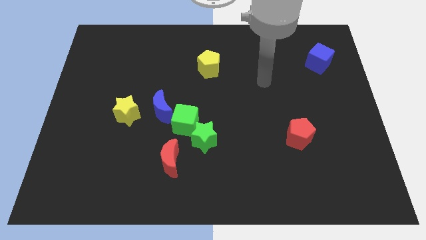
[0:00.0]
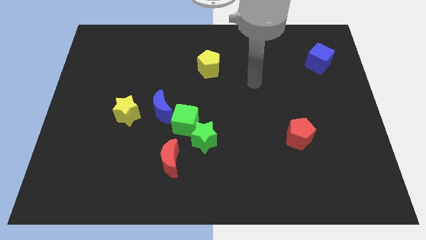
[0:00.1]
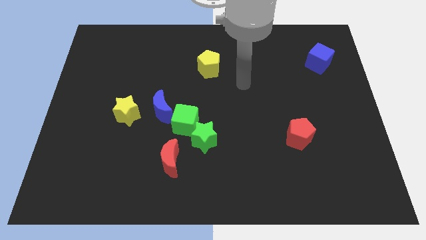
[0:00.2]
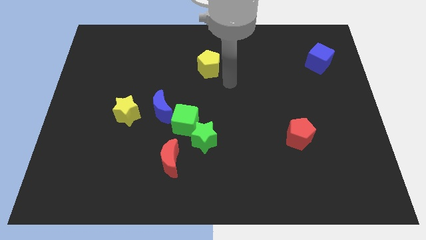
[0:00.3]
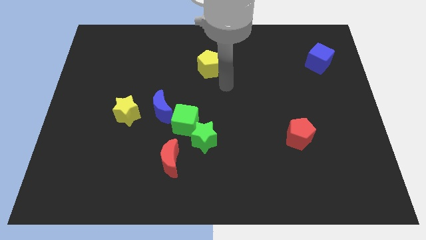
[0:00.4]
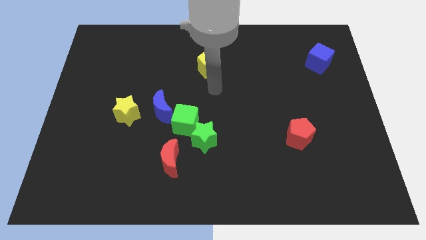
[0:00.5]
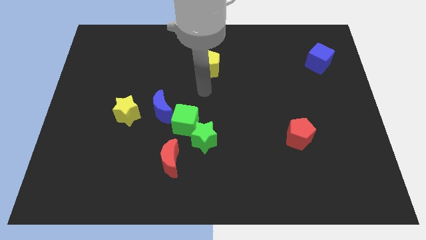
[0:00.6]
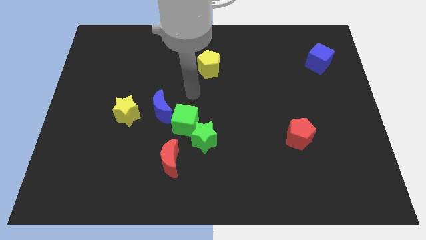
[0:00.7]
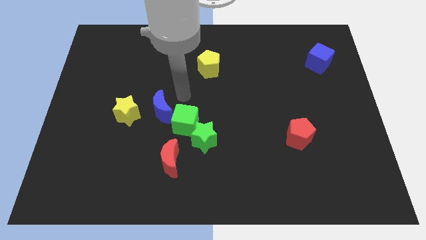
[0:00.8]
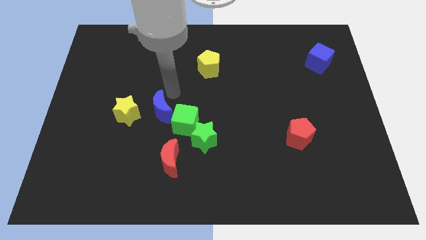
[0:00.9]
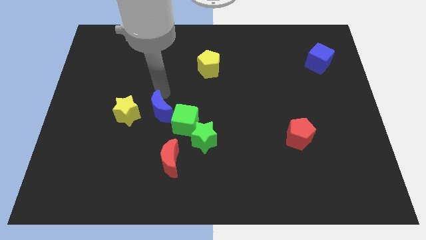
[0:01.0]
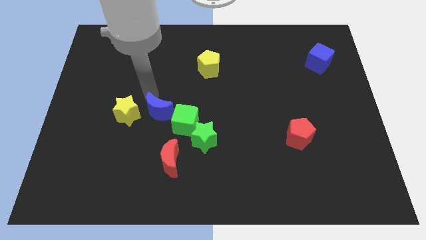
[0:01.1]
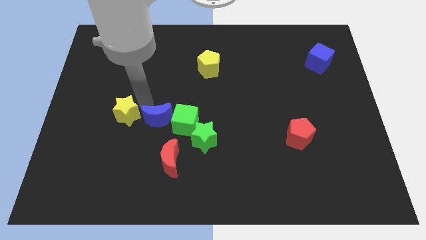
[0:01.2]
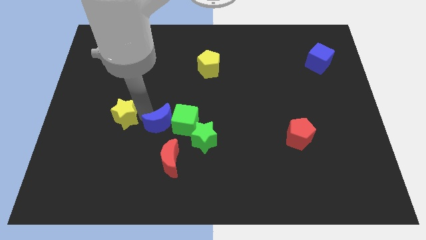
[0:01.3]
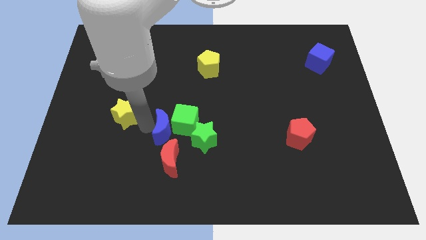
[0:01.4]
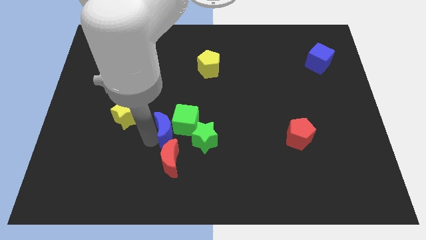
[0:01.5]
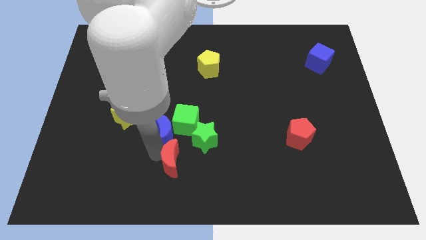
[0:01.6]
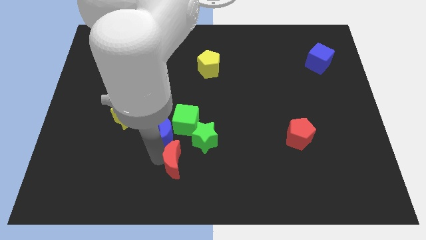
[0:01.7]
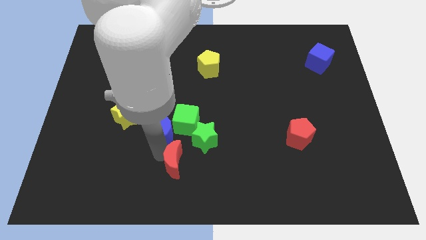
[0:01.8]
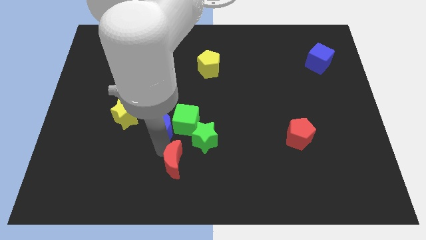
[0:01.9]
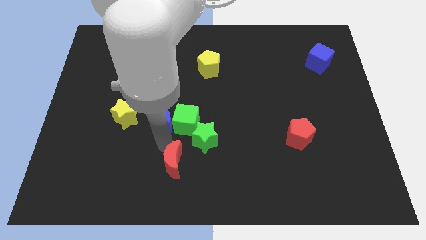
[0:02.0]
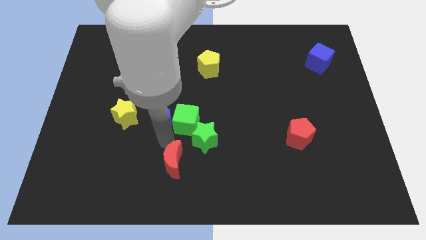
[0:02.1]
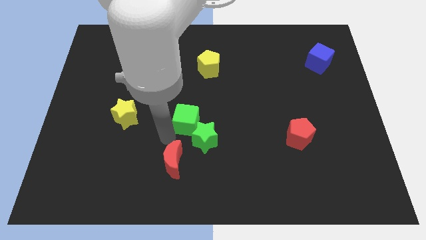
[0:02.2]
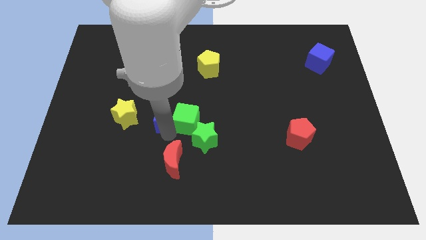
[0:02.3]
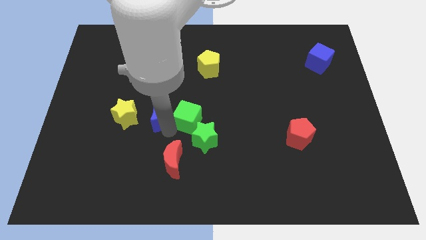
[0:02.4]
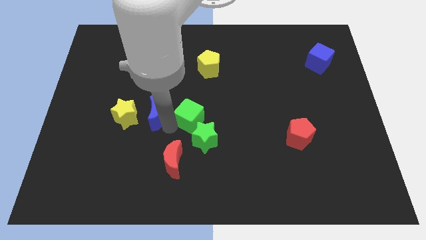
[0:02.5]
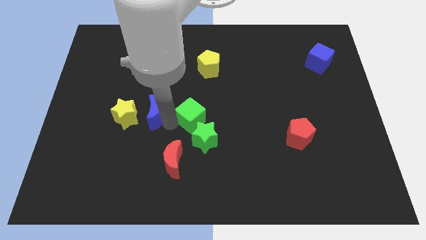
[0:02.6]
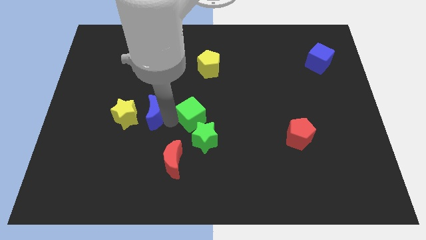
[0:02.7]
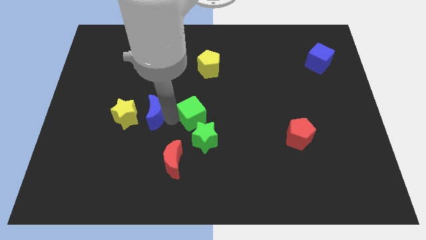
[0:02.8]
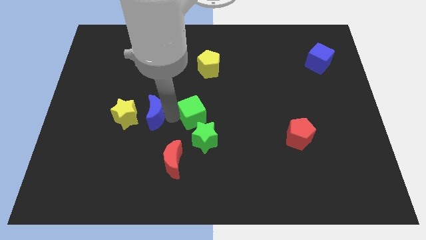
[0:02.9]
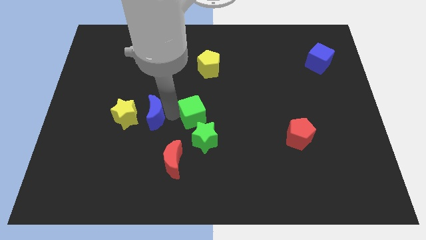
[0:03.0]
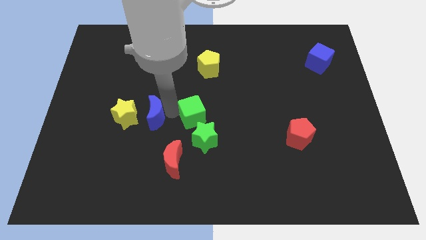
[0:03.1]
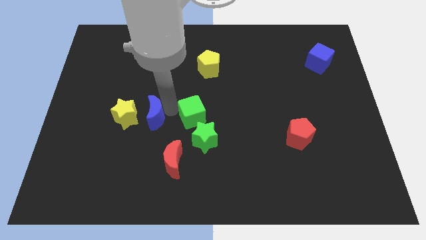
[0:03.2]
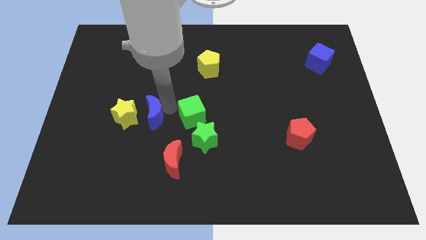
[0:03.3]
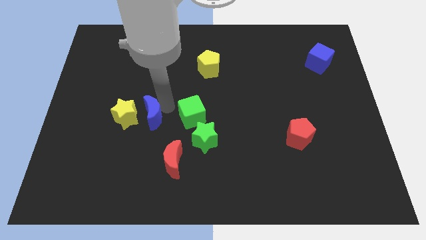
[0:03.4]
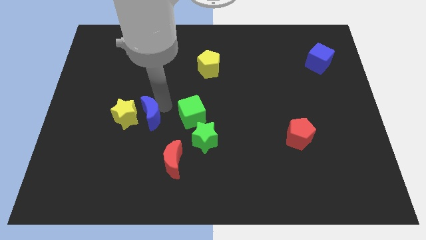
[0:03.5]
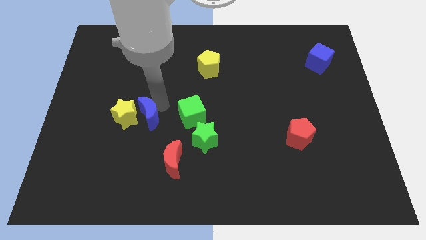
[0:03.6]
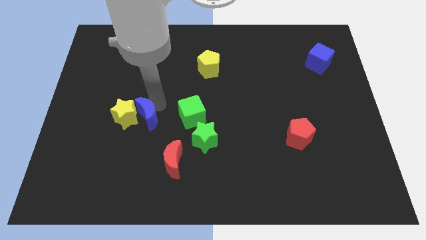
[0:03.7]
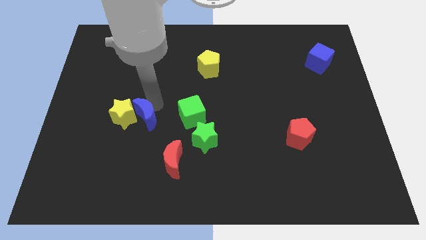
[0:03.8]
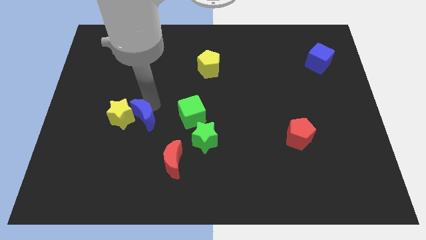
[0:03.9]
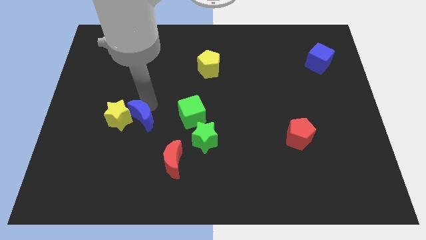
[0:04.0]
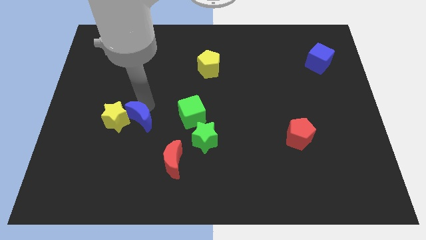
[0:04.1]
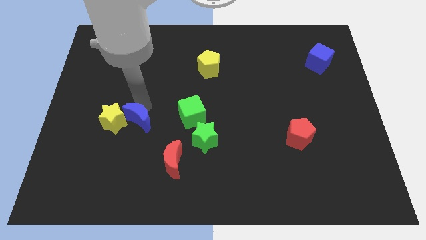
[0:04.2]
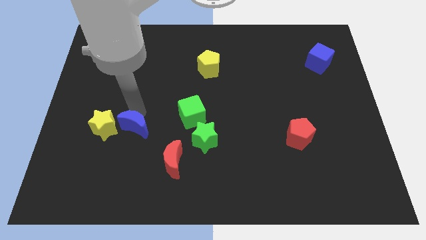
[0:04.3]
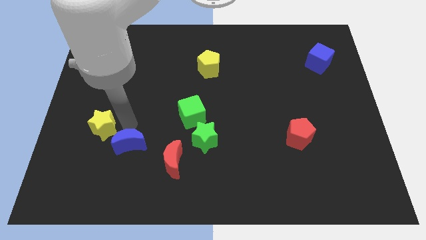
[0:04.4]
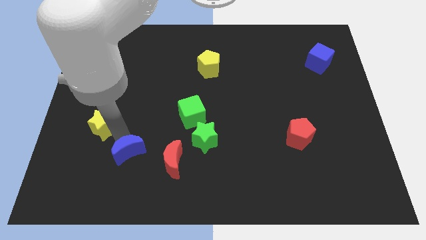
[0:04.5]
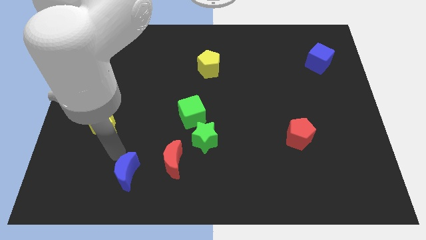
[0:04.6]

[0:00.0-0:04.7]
move the blue moon away from the green cube and yellow star

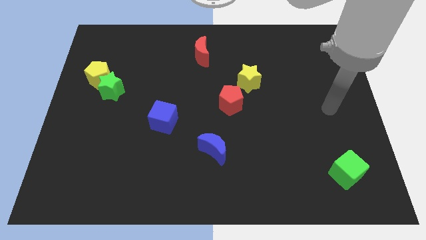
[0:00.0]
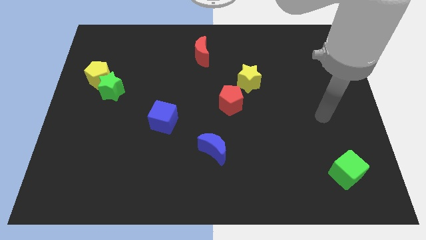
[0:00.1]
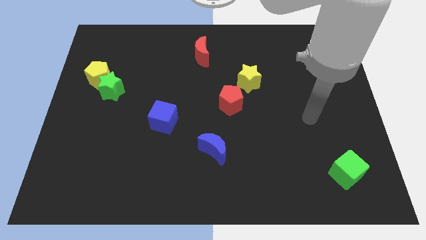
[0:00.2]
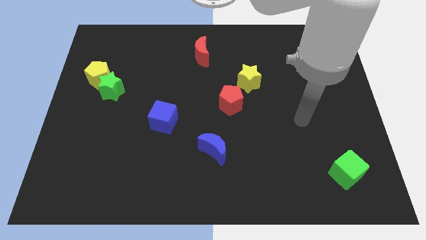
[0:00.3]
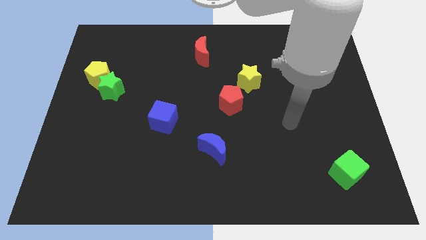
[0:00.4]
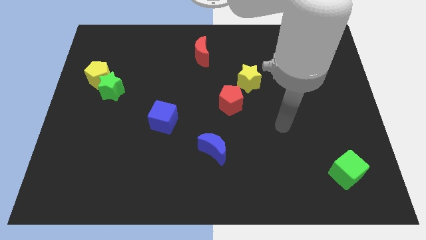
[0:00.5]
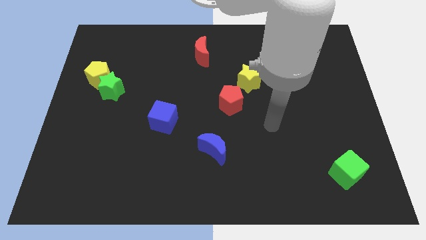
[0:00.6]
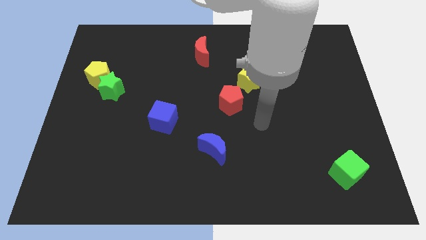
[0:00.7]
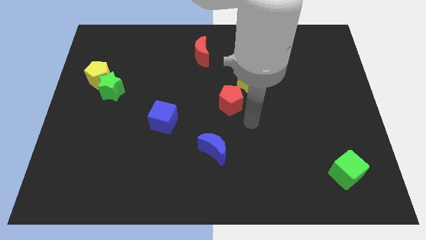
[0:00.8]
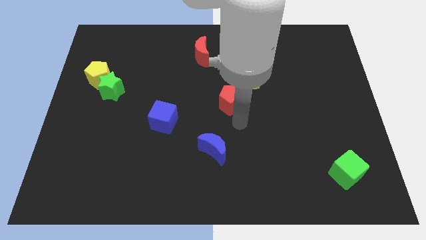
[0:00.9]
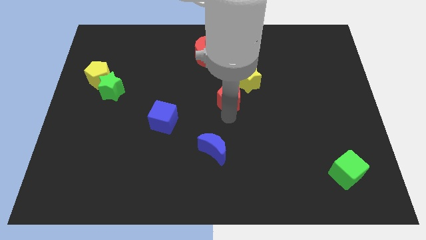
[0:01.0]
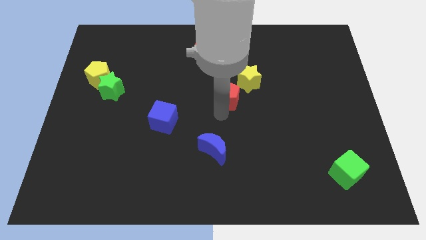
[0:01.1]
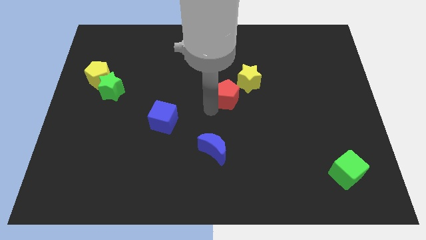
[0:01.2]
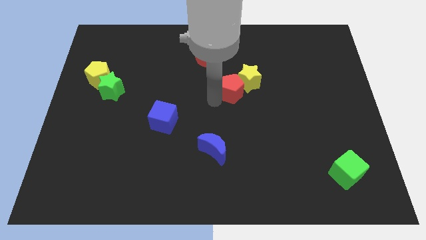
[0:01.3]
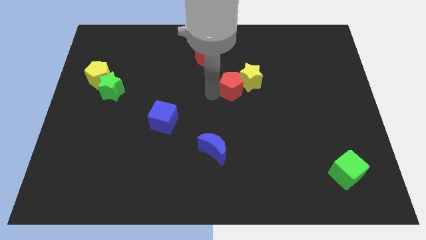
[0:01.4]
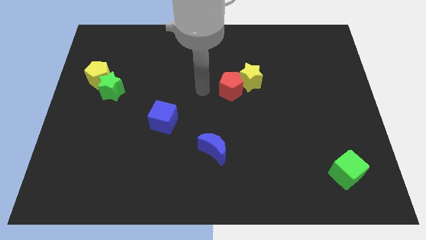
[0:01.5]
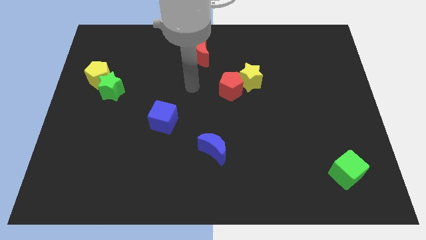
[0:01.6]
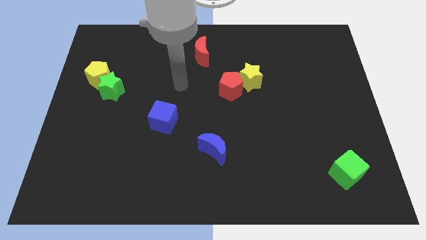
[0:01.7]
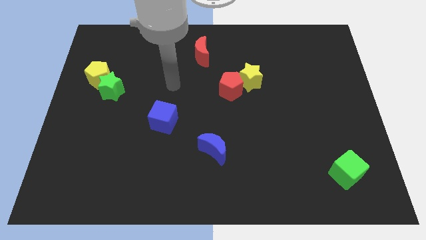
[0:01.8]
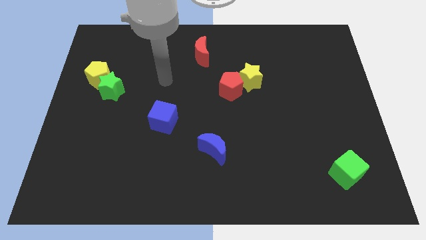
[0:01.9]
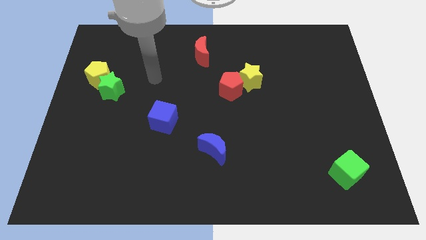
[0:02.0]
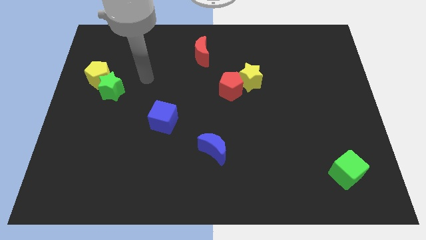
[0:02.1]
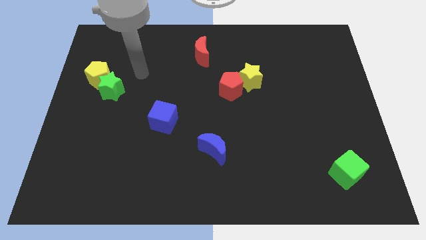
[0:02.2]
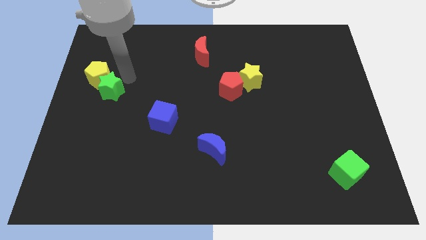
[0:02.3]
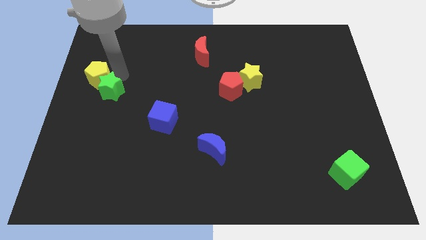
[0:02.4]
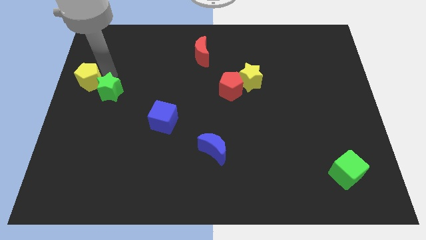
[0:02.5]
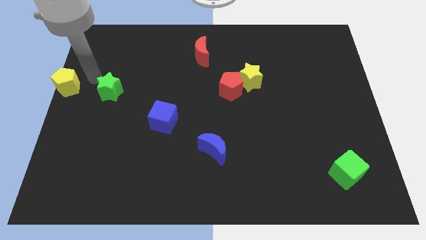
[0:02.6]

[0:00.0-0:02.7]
separate the green star from the yellow pentagon

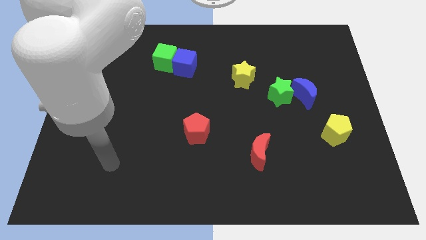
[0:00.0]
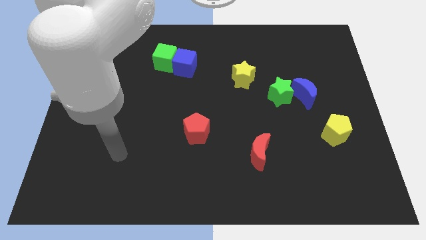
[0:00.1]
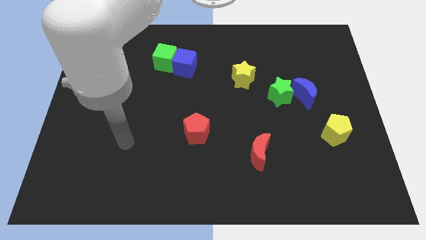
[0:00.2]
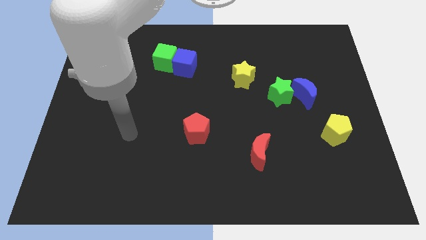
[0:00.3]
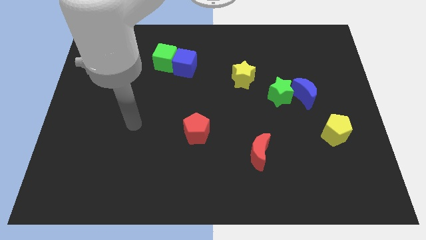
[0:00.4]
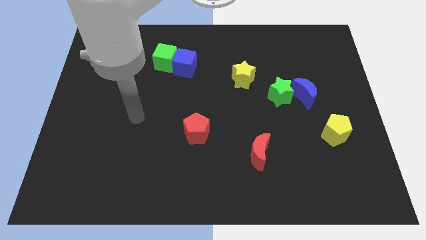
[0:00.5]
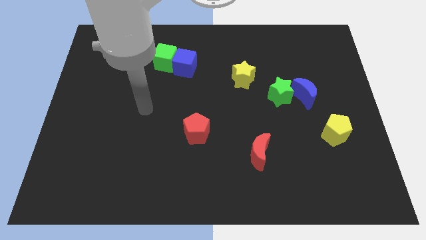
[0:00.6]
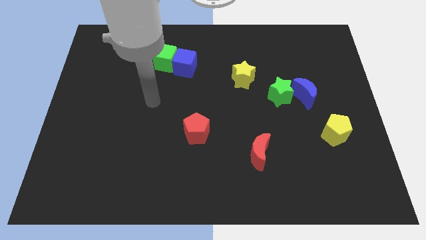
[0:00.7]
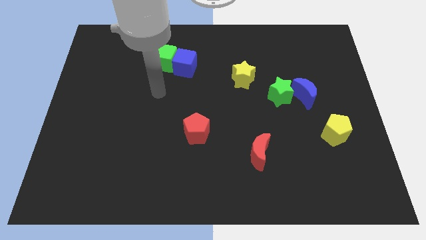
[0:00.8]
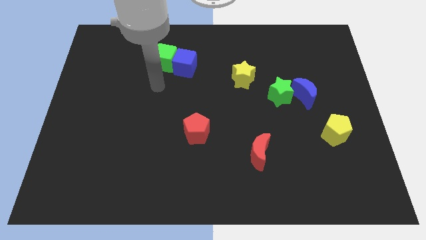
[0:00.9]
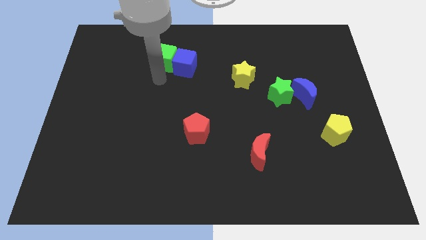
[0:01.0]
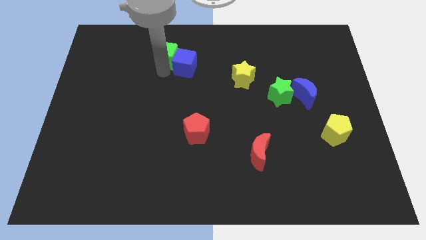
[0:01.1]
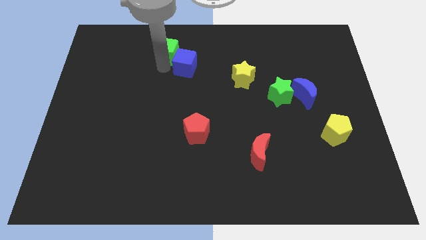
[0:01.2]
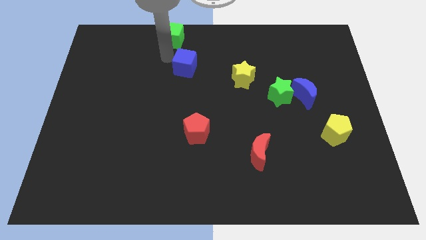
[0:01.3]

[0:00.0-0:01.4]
move the blue cube away from the green cube

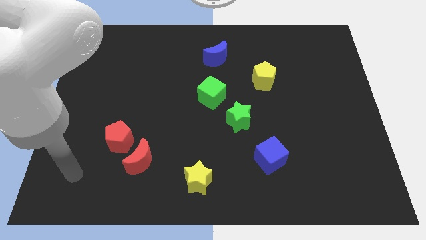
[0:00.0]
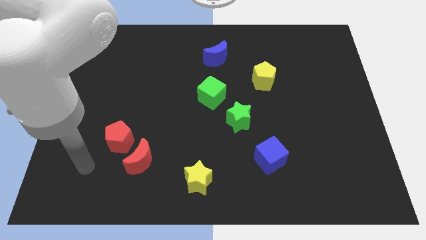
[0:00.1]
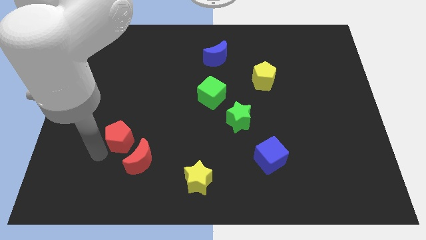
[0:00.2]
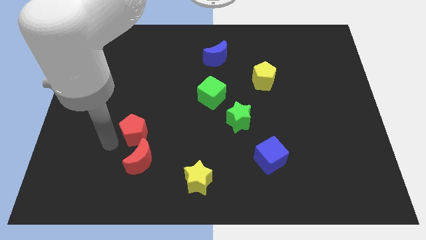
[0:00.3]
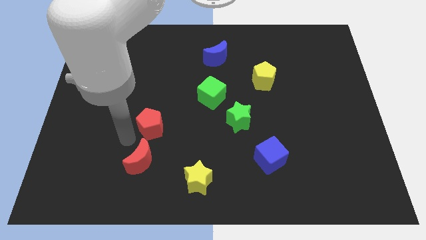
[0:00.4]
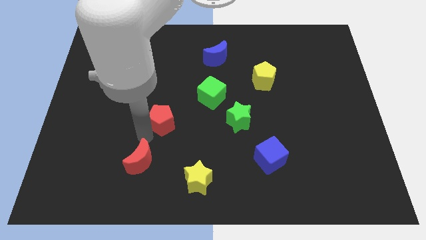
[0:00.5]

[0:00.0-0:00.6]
separate the red moon from the red pentagon

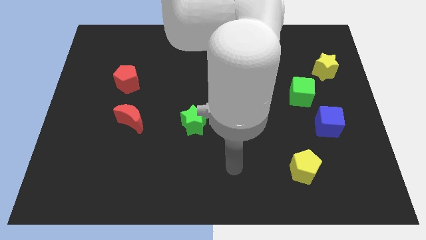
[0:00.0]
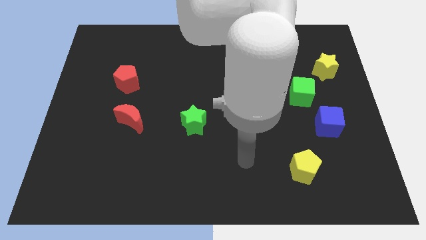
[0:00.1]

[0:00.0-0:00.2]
pull the blue cube apart from the green cube
